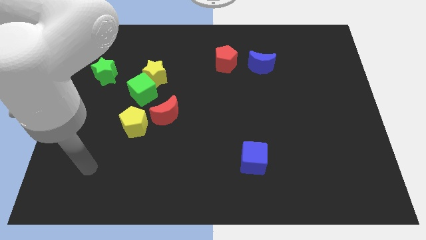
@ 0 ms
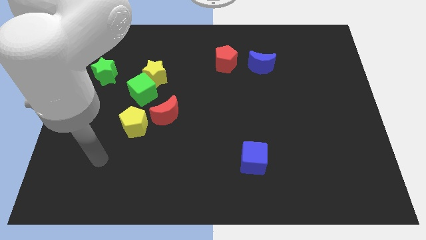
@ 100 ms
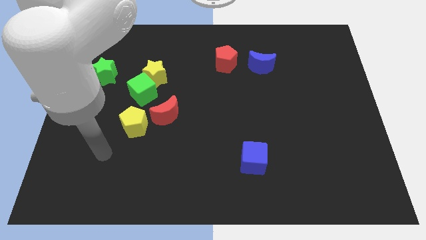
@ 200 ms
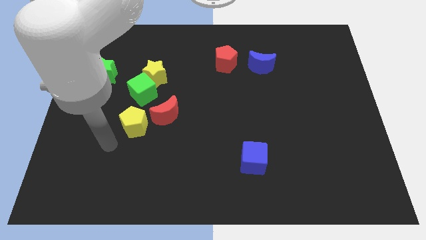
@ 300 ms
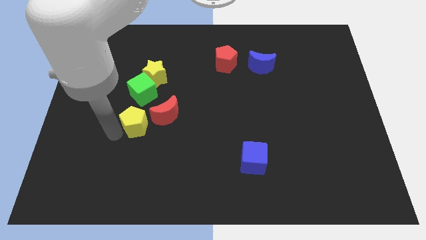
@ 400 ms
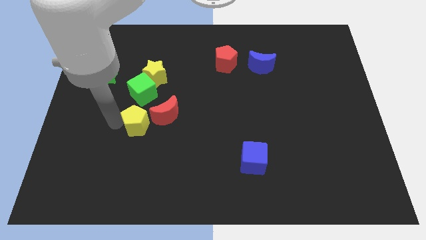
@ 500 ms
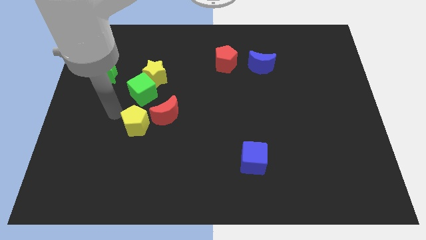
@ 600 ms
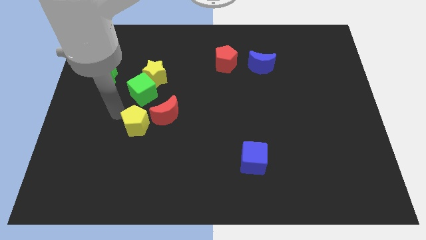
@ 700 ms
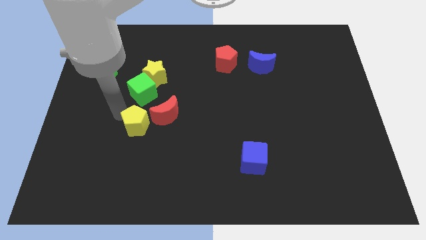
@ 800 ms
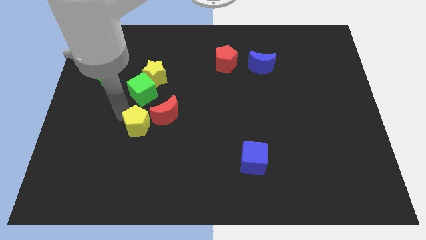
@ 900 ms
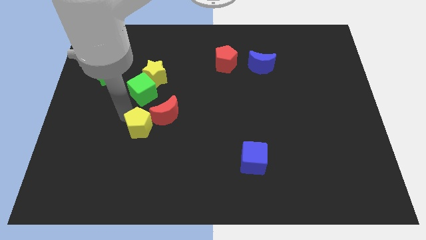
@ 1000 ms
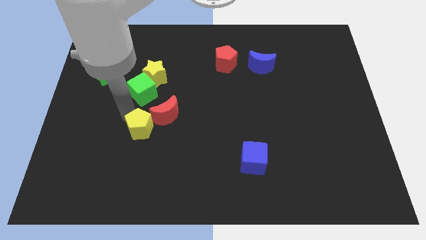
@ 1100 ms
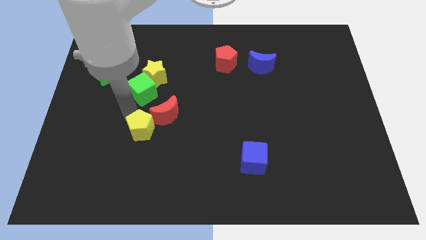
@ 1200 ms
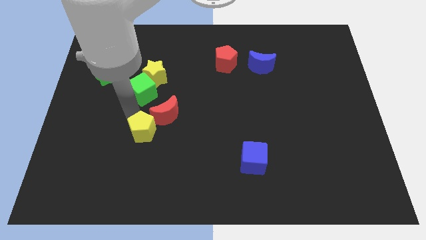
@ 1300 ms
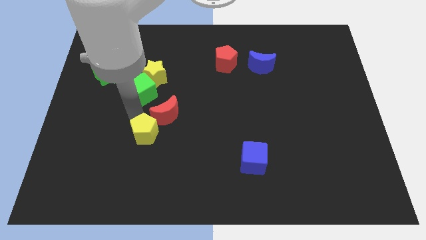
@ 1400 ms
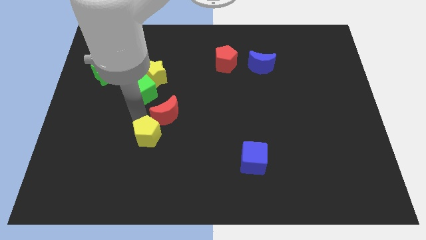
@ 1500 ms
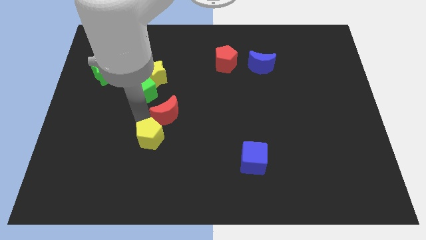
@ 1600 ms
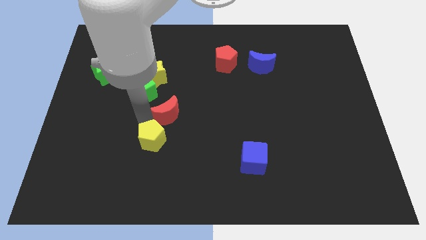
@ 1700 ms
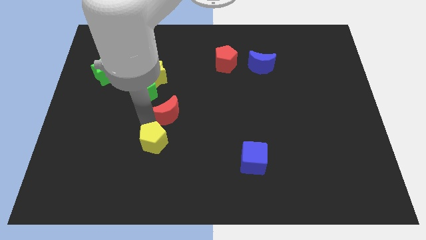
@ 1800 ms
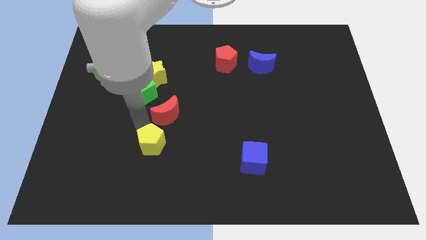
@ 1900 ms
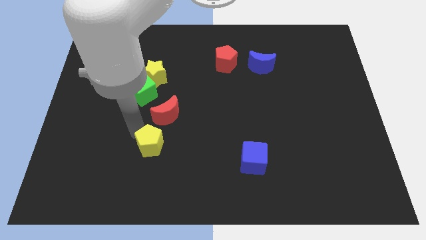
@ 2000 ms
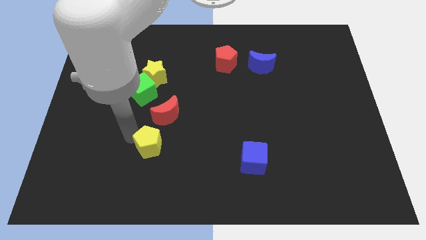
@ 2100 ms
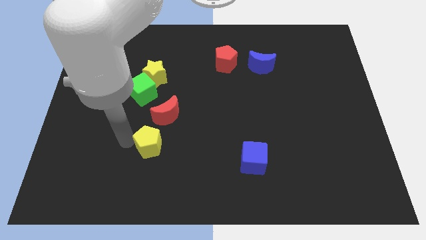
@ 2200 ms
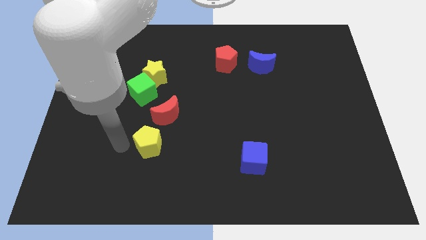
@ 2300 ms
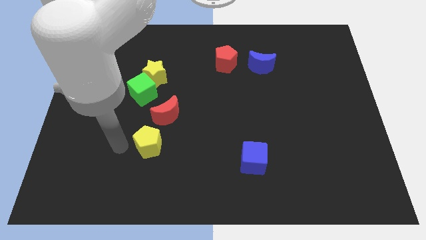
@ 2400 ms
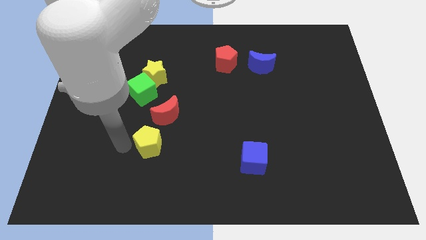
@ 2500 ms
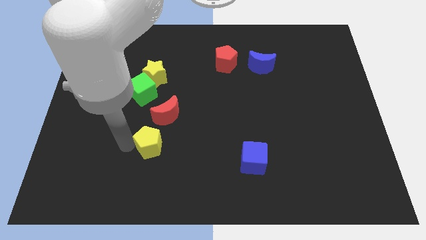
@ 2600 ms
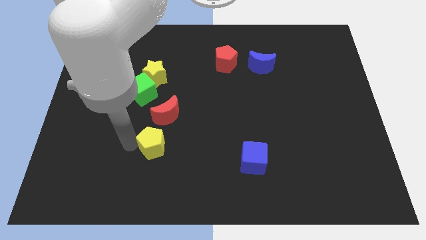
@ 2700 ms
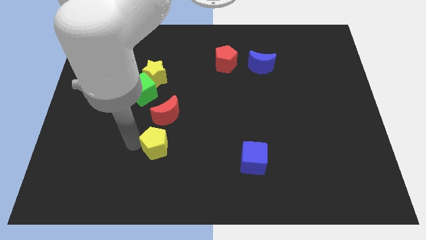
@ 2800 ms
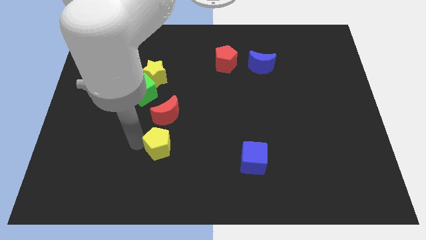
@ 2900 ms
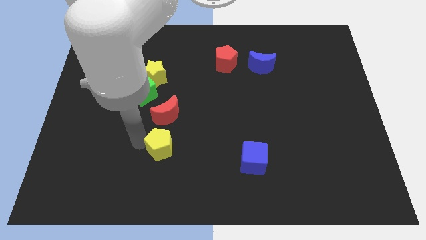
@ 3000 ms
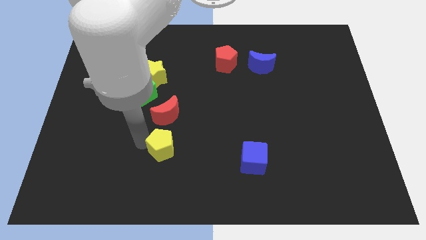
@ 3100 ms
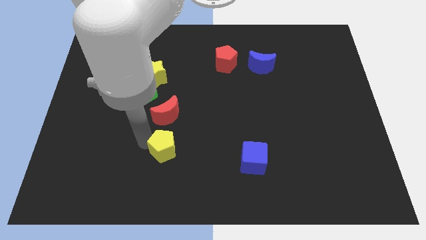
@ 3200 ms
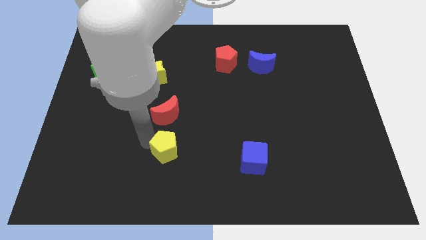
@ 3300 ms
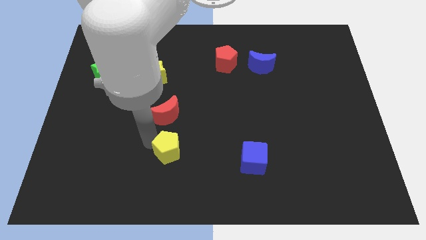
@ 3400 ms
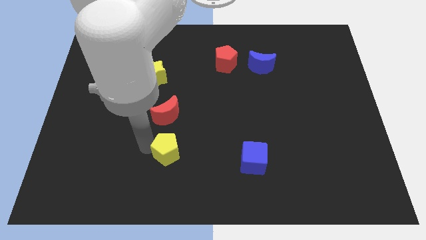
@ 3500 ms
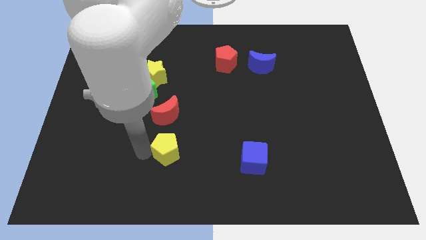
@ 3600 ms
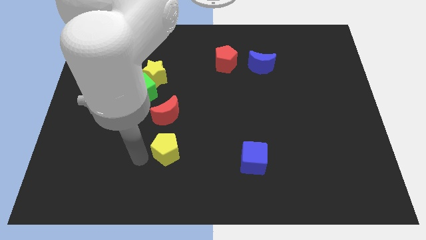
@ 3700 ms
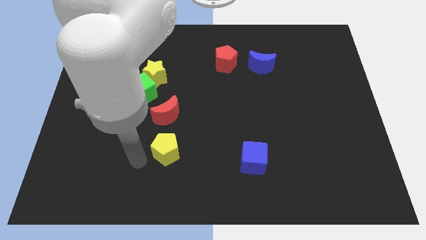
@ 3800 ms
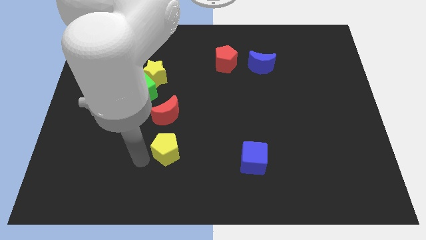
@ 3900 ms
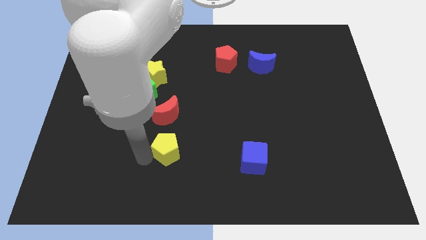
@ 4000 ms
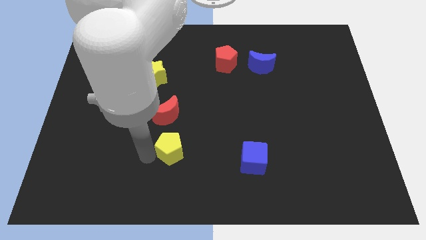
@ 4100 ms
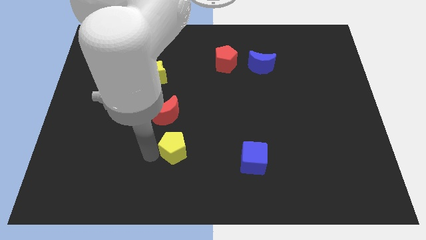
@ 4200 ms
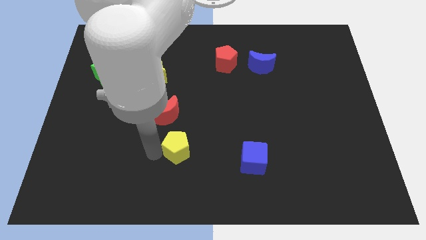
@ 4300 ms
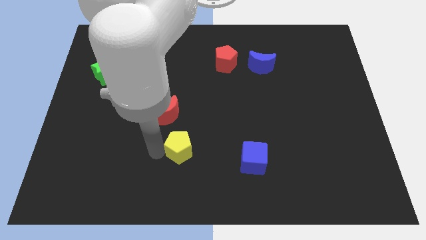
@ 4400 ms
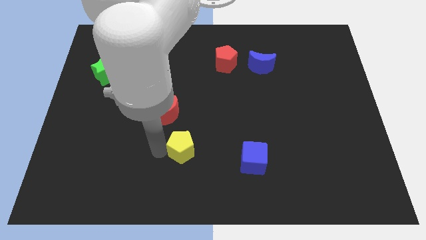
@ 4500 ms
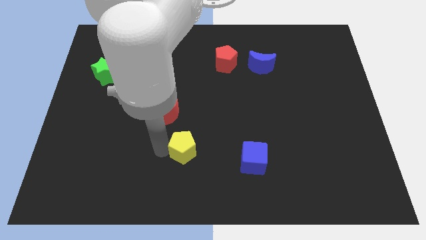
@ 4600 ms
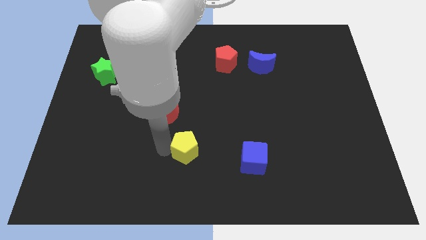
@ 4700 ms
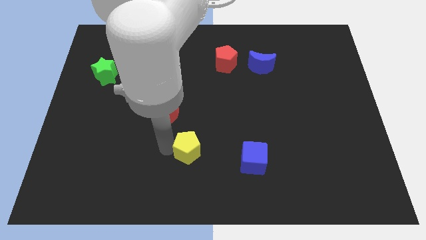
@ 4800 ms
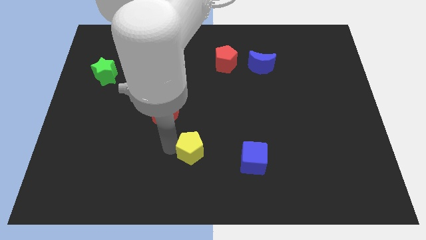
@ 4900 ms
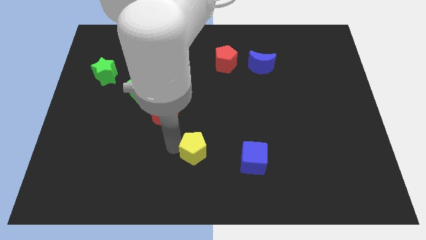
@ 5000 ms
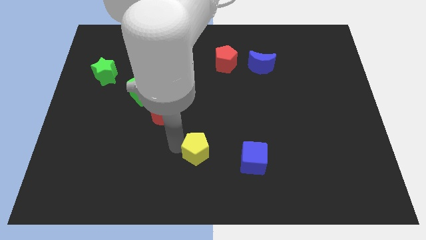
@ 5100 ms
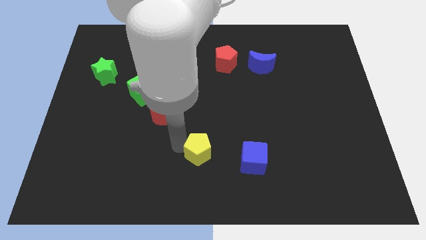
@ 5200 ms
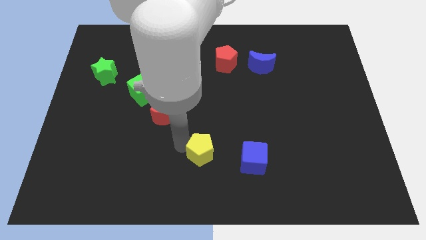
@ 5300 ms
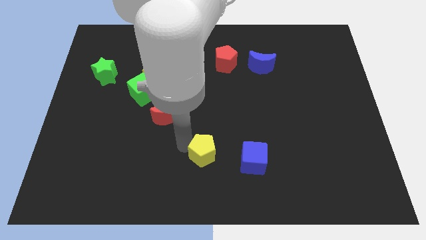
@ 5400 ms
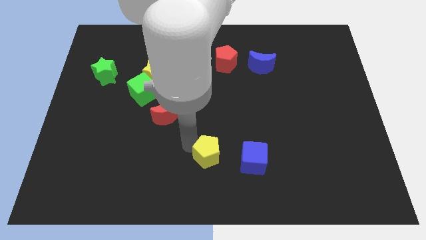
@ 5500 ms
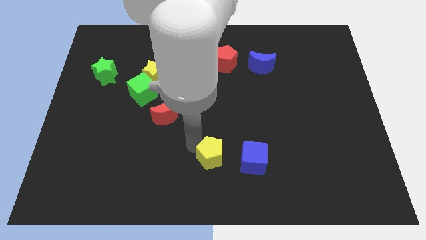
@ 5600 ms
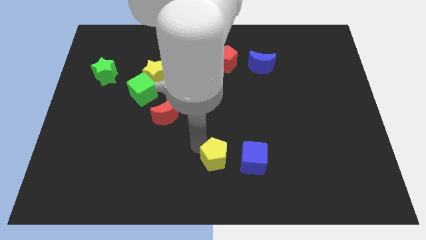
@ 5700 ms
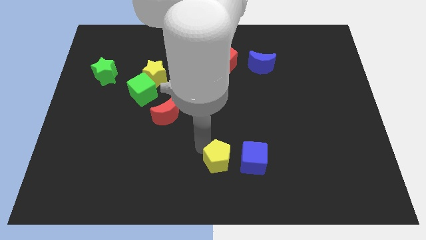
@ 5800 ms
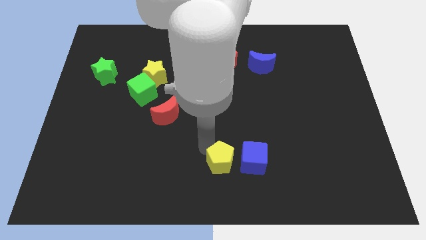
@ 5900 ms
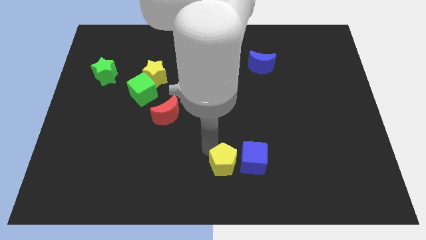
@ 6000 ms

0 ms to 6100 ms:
slide the yellow pentagon towards the blue cube

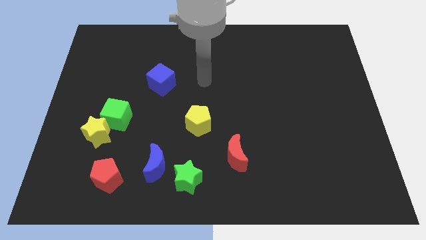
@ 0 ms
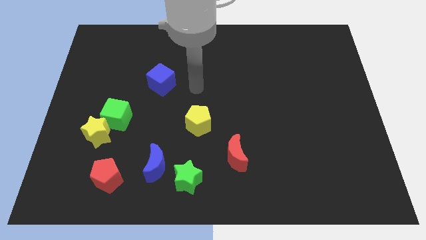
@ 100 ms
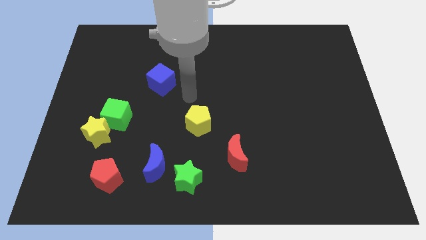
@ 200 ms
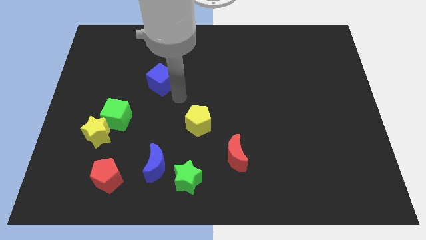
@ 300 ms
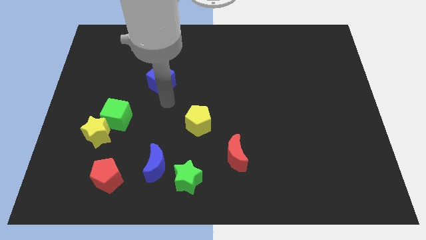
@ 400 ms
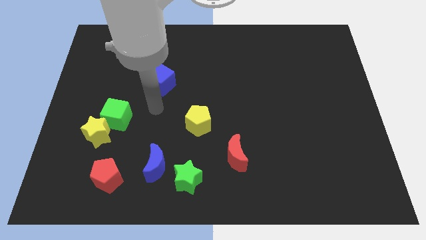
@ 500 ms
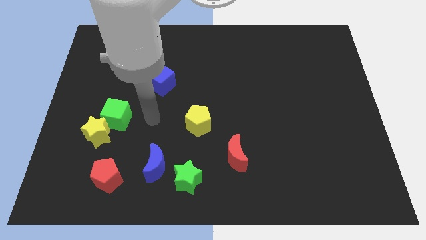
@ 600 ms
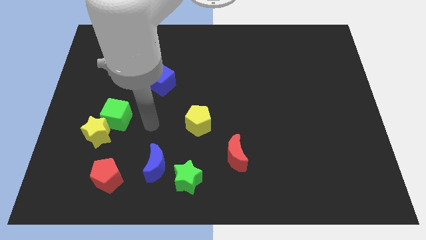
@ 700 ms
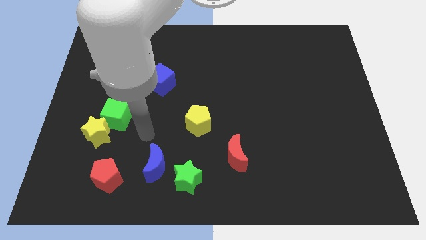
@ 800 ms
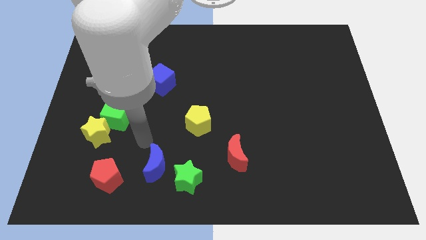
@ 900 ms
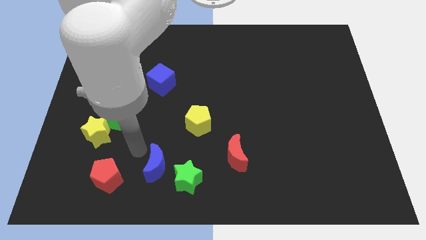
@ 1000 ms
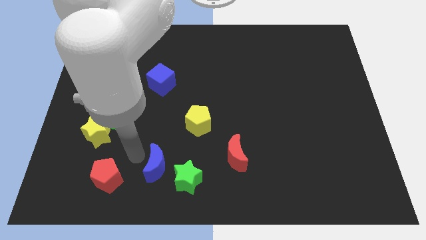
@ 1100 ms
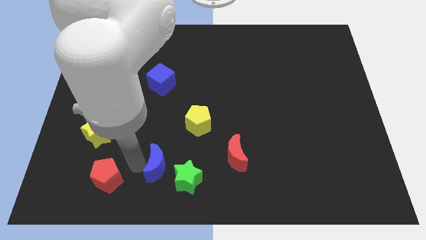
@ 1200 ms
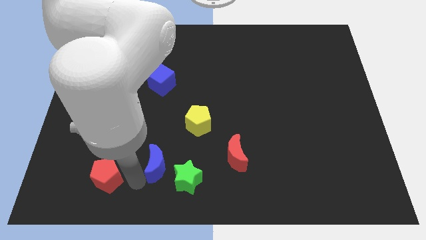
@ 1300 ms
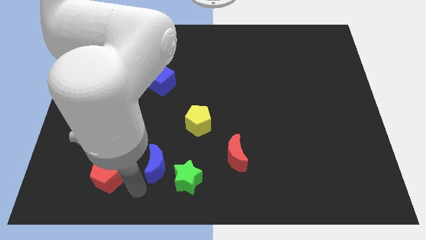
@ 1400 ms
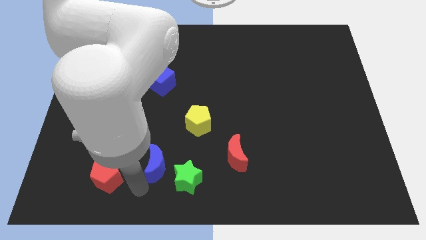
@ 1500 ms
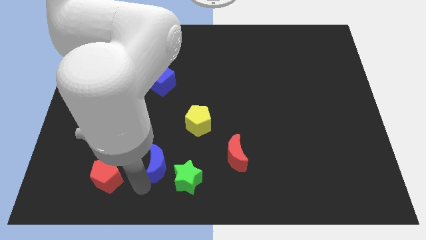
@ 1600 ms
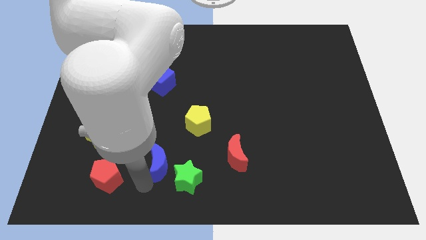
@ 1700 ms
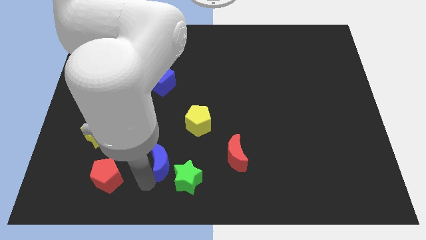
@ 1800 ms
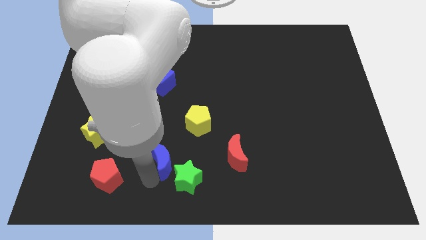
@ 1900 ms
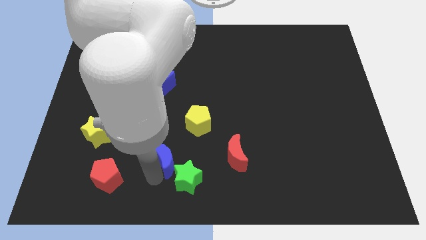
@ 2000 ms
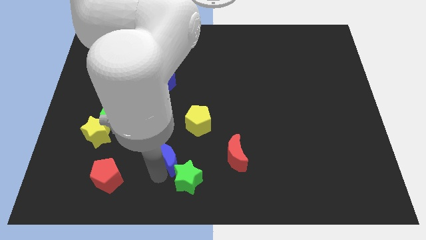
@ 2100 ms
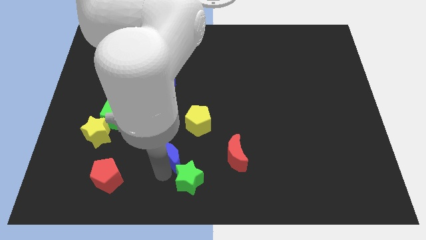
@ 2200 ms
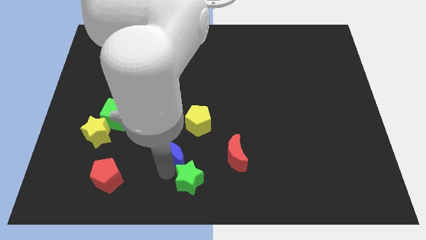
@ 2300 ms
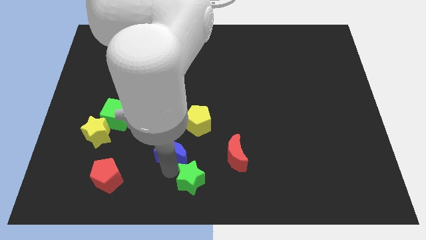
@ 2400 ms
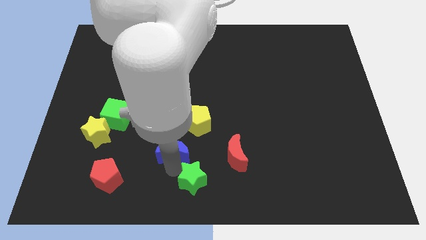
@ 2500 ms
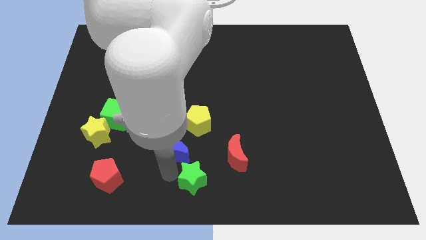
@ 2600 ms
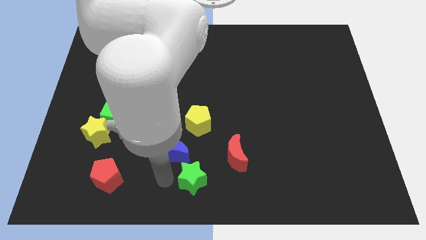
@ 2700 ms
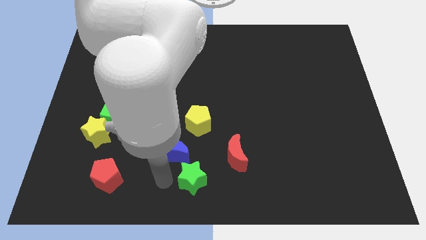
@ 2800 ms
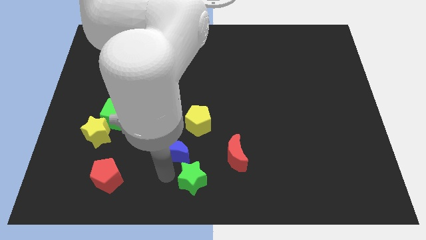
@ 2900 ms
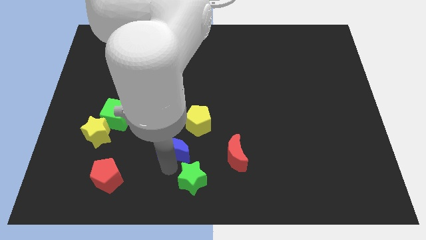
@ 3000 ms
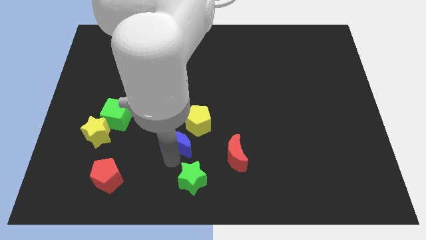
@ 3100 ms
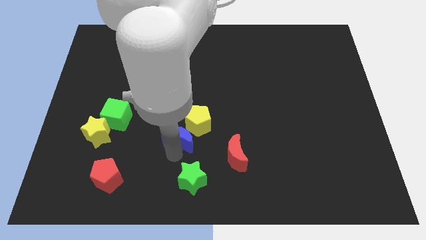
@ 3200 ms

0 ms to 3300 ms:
push the blue moon next to the yellow pentagon
